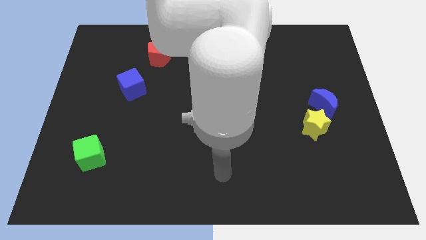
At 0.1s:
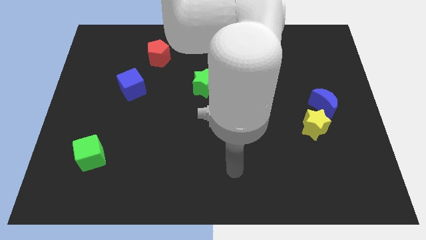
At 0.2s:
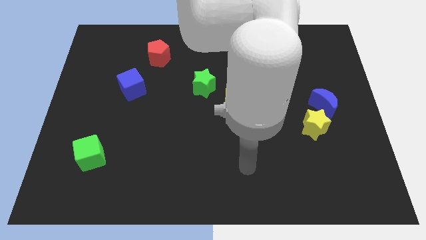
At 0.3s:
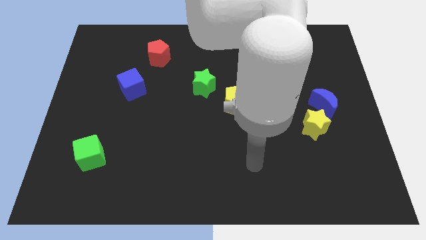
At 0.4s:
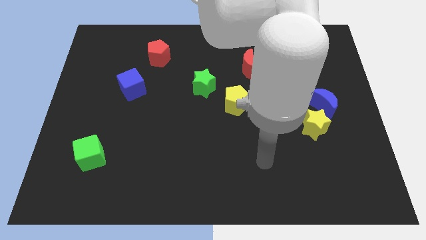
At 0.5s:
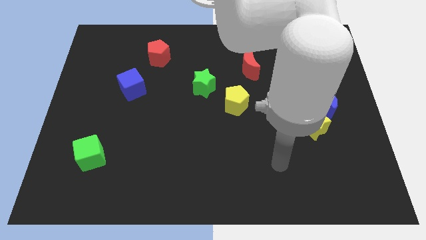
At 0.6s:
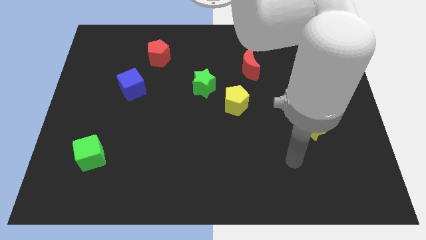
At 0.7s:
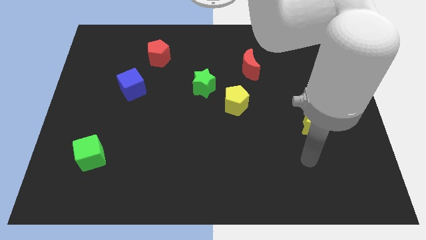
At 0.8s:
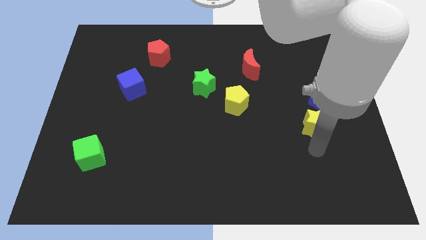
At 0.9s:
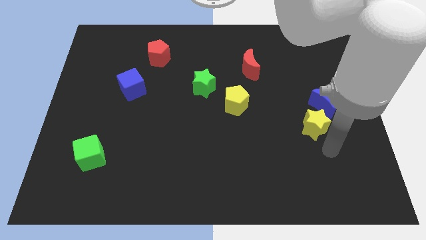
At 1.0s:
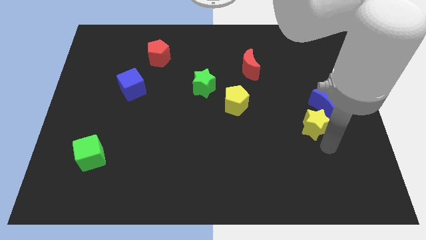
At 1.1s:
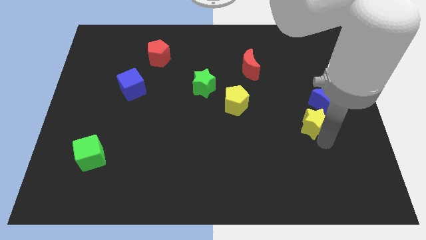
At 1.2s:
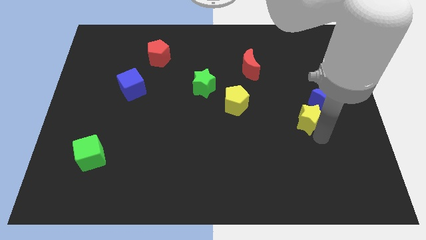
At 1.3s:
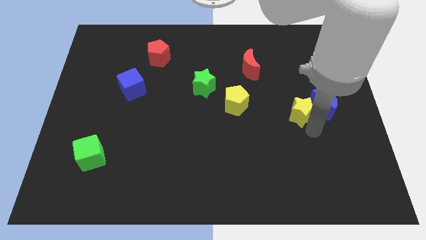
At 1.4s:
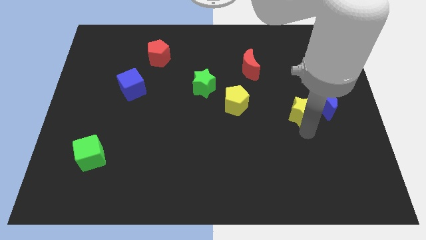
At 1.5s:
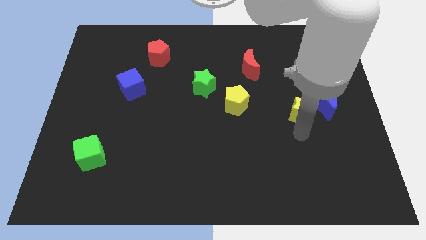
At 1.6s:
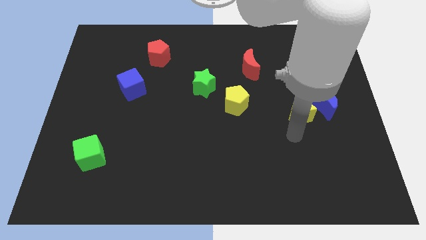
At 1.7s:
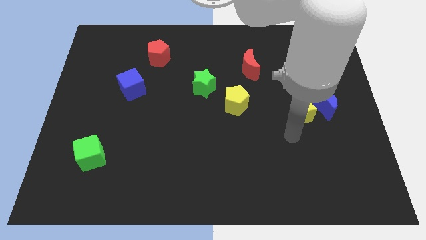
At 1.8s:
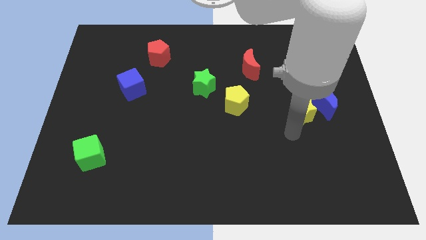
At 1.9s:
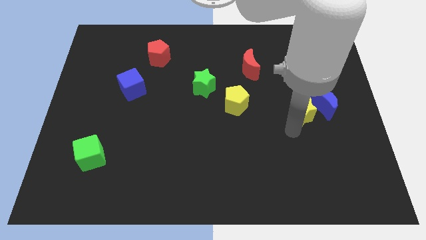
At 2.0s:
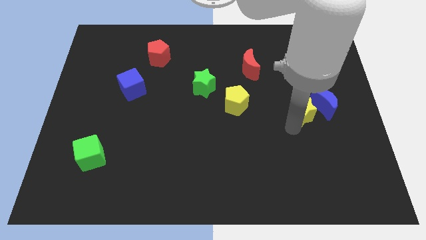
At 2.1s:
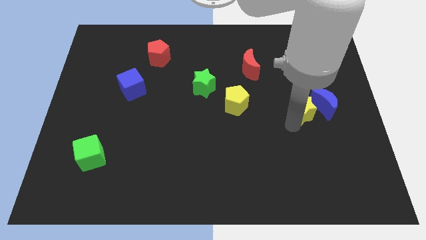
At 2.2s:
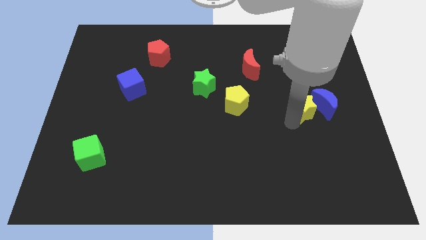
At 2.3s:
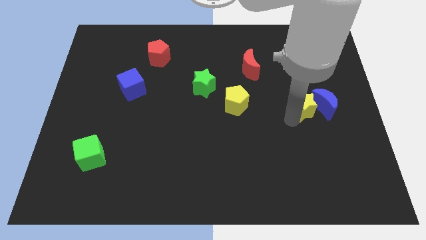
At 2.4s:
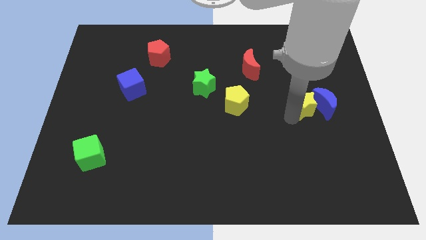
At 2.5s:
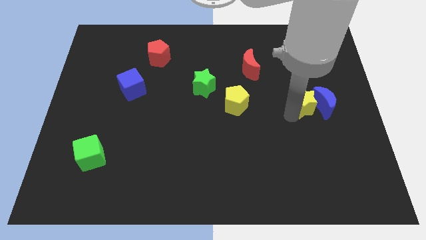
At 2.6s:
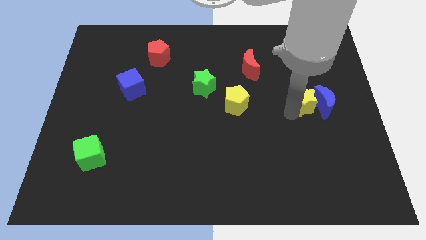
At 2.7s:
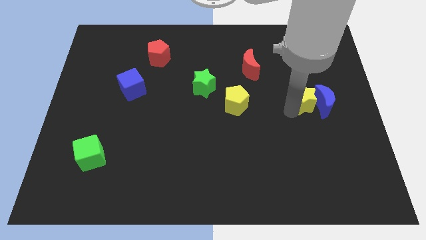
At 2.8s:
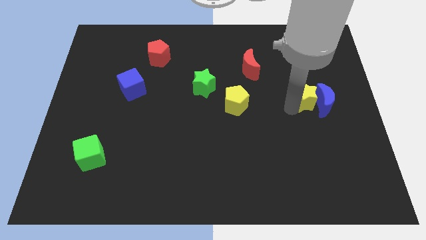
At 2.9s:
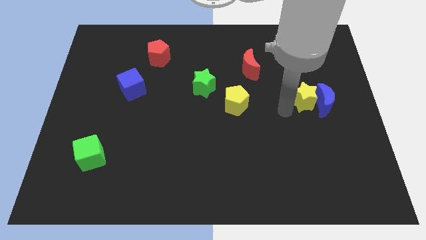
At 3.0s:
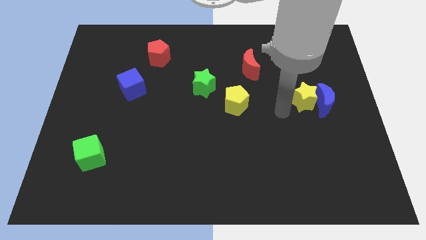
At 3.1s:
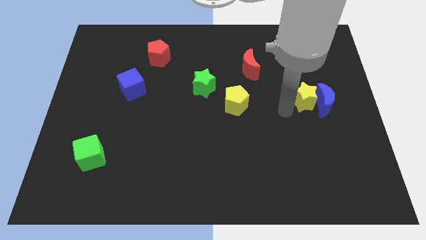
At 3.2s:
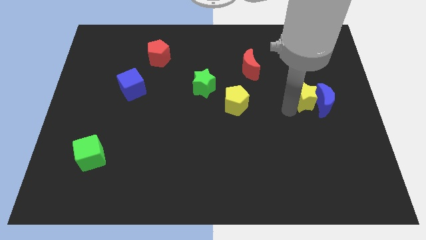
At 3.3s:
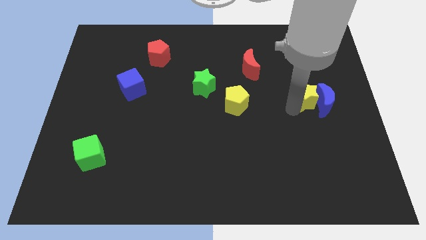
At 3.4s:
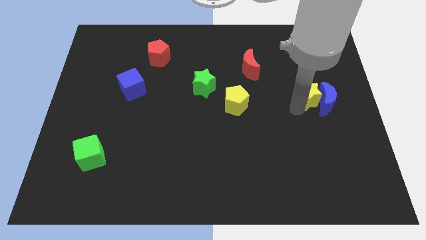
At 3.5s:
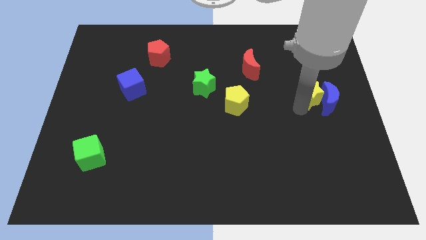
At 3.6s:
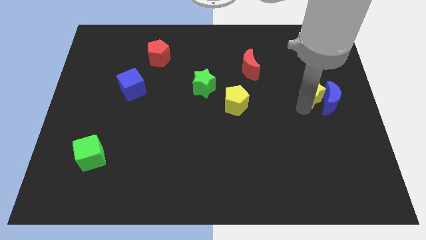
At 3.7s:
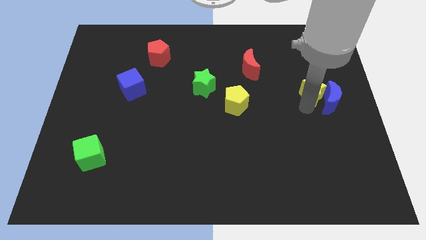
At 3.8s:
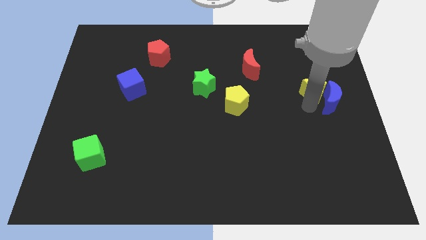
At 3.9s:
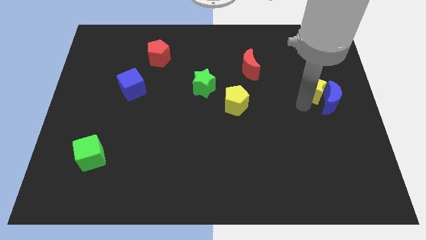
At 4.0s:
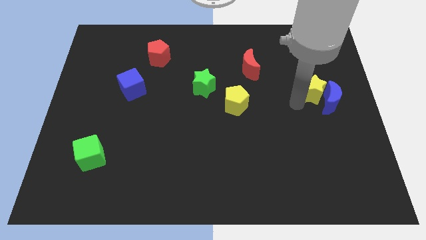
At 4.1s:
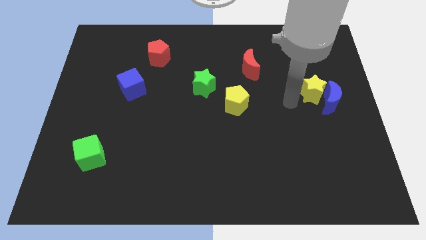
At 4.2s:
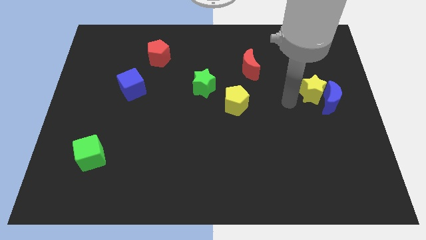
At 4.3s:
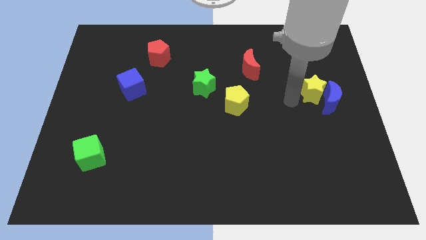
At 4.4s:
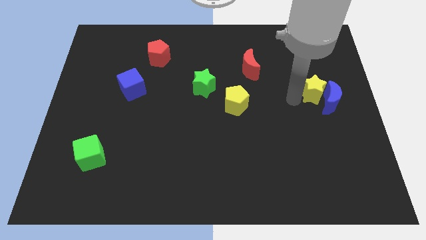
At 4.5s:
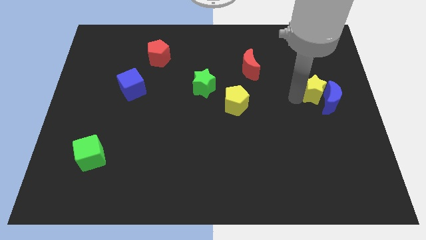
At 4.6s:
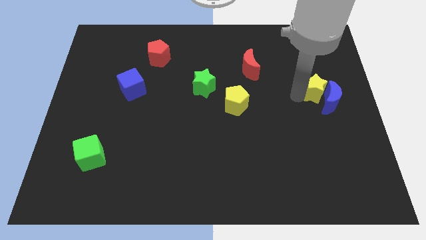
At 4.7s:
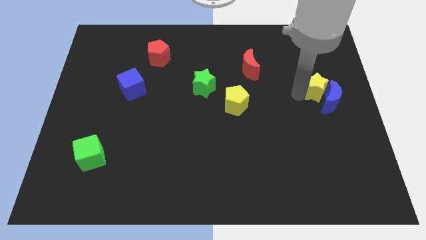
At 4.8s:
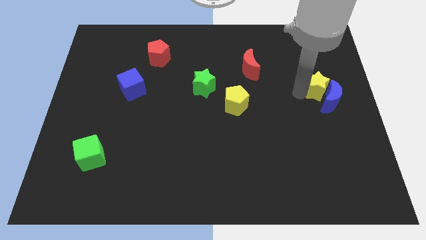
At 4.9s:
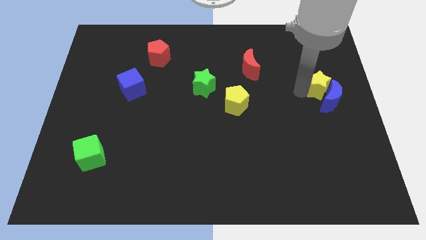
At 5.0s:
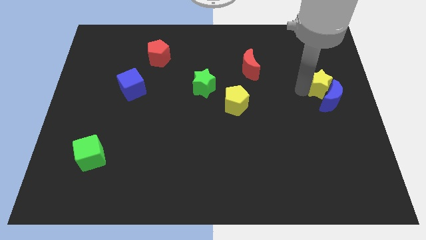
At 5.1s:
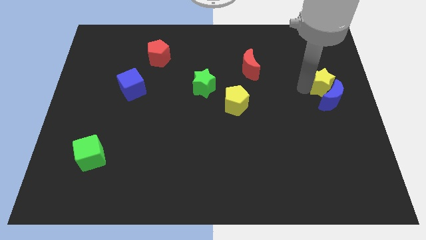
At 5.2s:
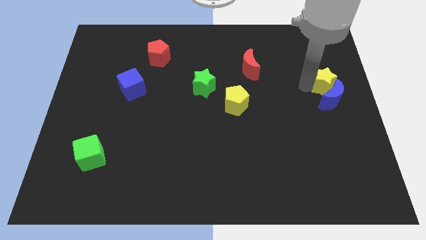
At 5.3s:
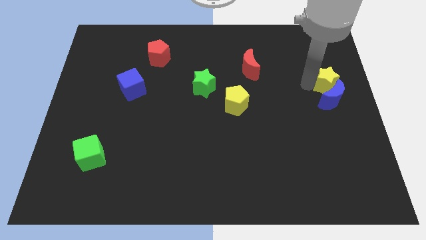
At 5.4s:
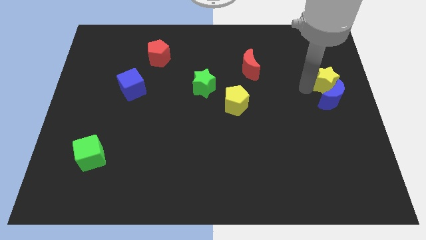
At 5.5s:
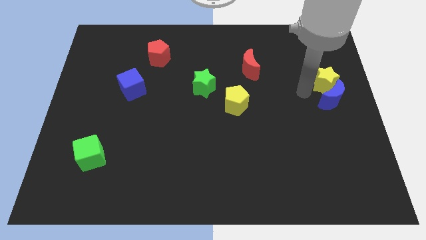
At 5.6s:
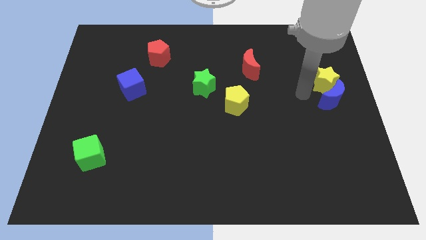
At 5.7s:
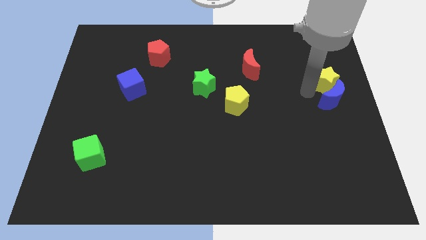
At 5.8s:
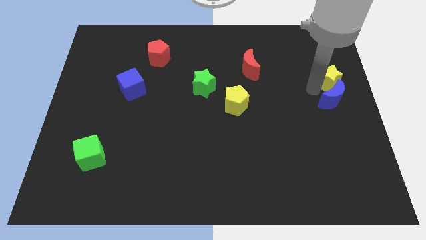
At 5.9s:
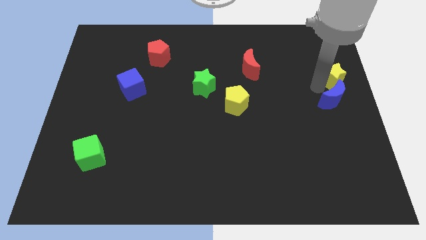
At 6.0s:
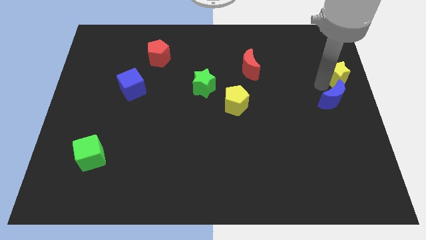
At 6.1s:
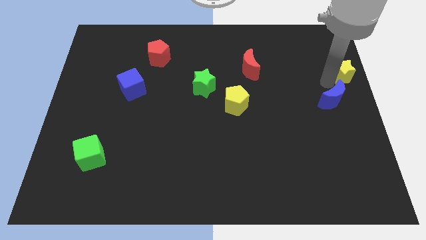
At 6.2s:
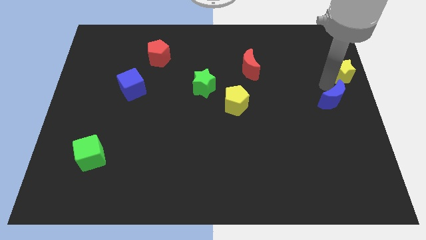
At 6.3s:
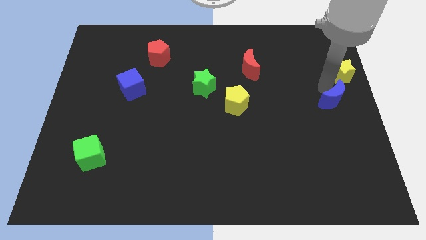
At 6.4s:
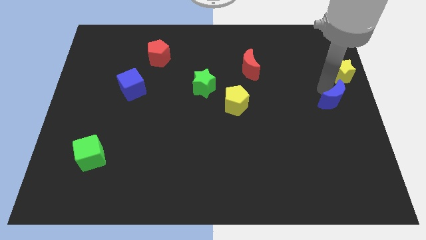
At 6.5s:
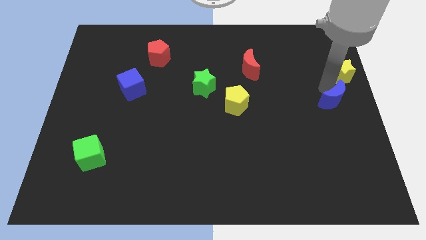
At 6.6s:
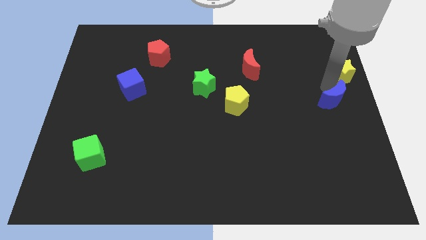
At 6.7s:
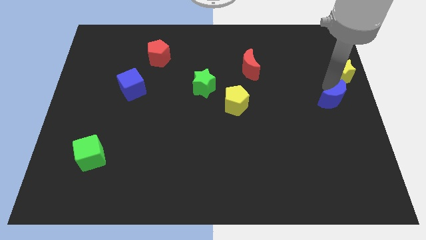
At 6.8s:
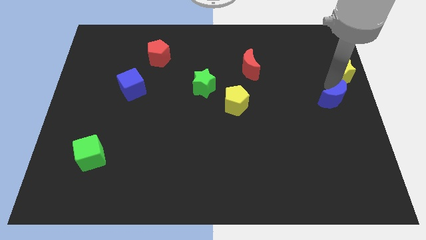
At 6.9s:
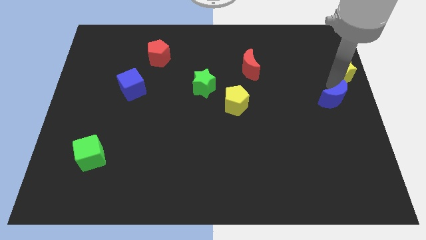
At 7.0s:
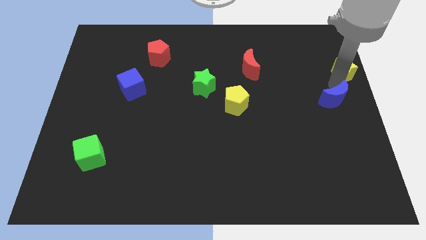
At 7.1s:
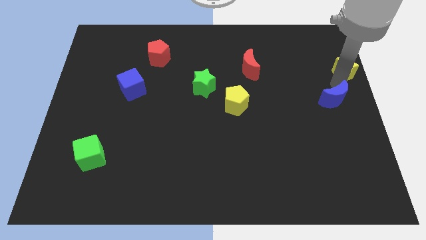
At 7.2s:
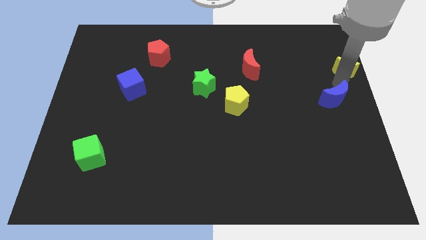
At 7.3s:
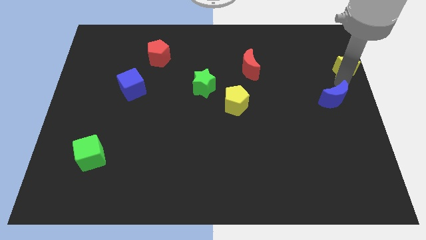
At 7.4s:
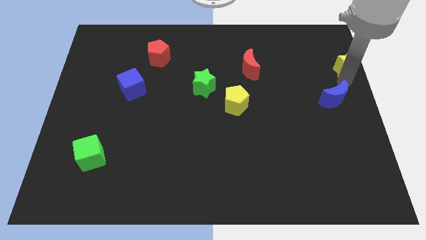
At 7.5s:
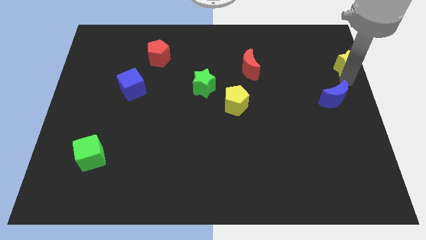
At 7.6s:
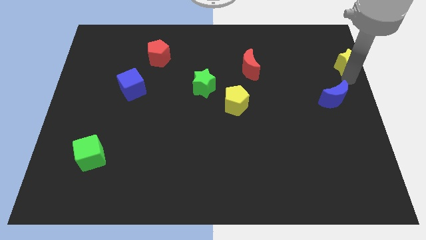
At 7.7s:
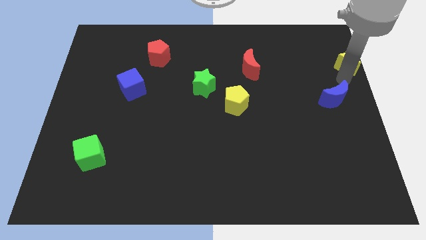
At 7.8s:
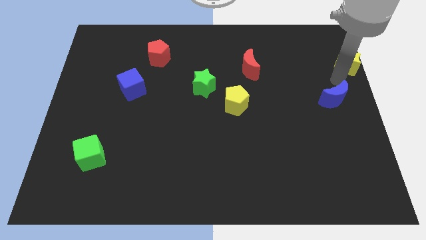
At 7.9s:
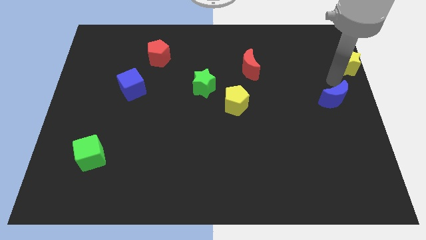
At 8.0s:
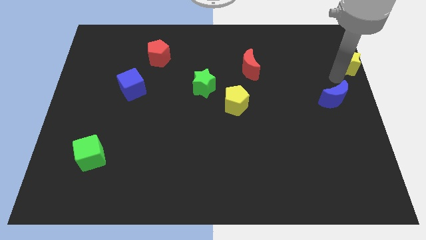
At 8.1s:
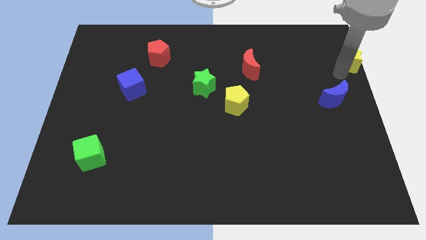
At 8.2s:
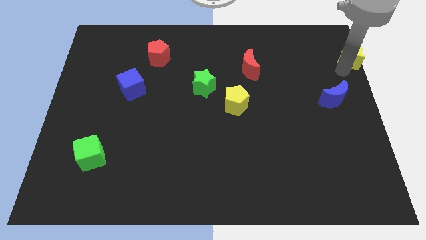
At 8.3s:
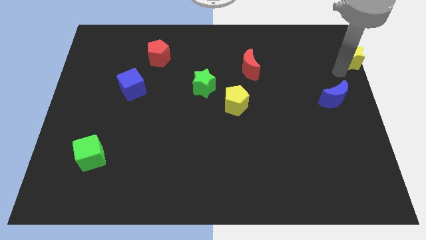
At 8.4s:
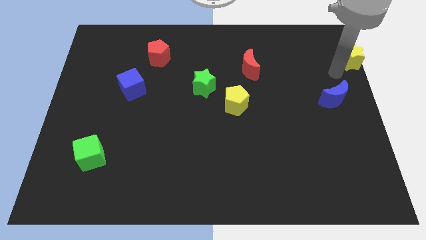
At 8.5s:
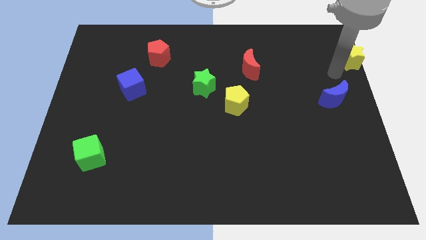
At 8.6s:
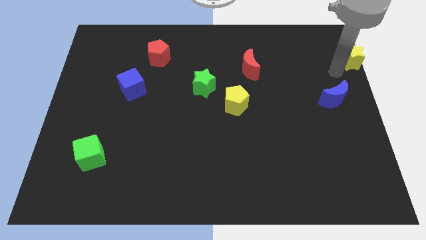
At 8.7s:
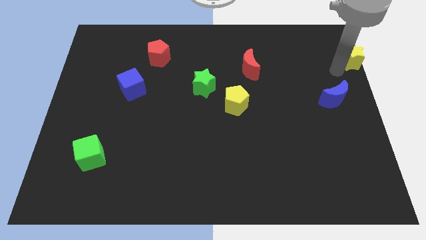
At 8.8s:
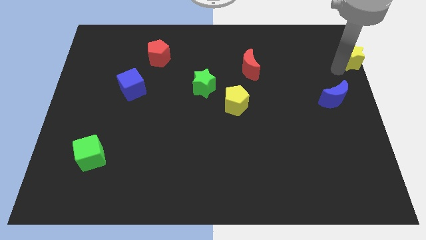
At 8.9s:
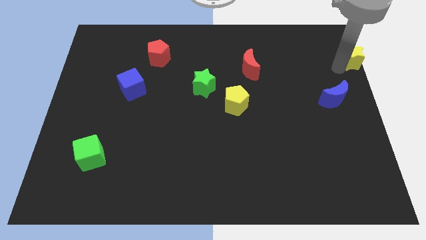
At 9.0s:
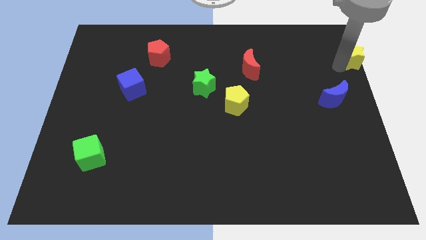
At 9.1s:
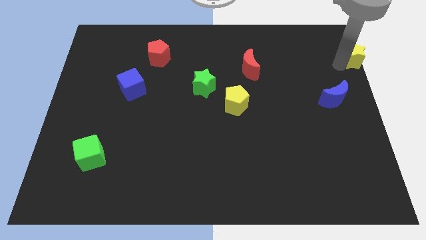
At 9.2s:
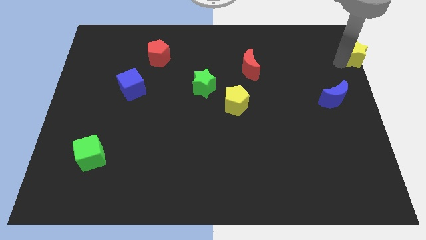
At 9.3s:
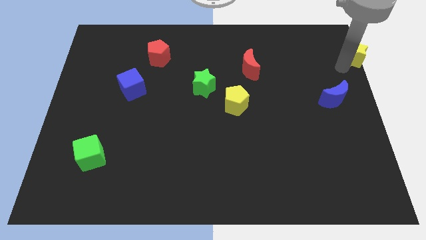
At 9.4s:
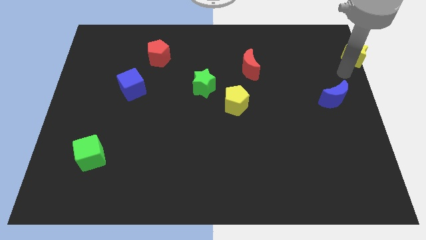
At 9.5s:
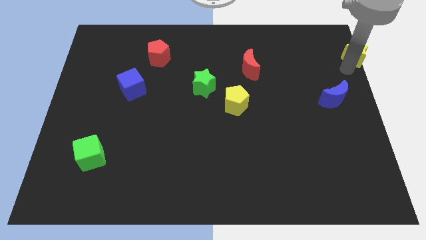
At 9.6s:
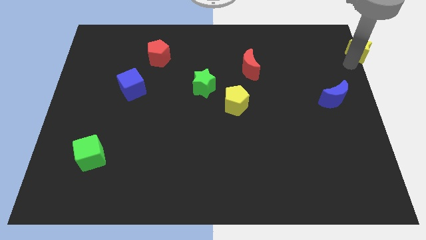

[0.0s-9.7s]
put the yellow star to the top right of the board
